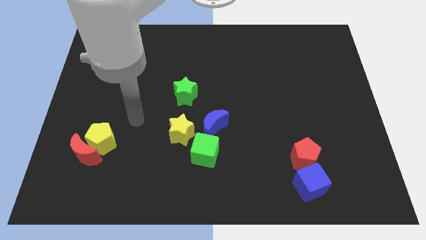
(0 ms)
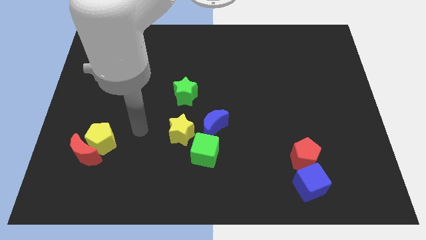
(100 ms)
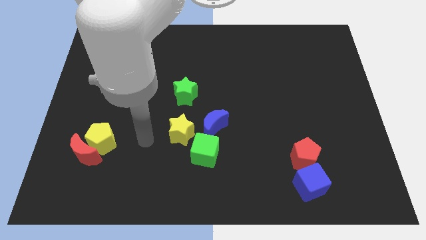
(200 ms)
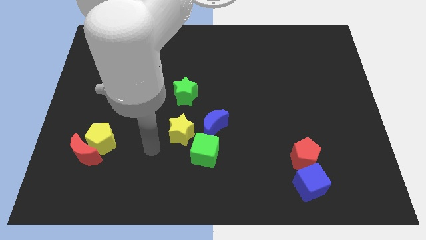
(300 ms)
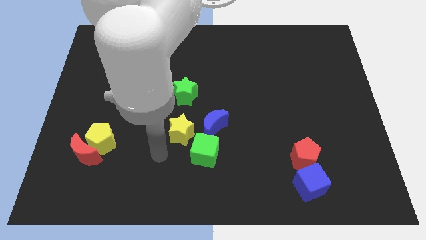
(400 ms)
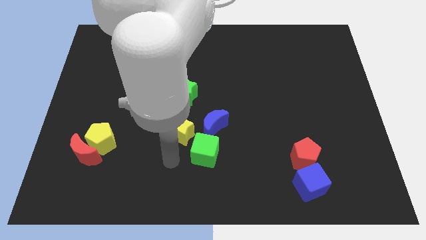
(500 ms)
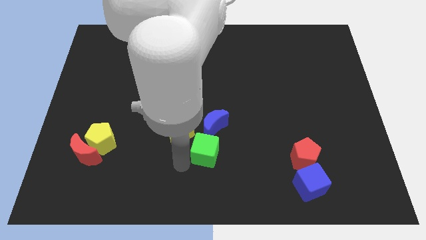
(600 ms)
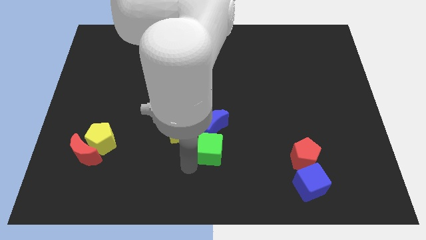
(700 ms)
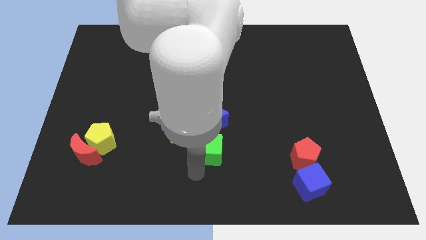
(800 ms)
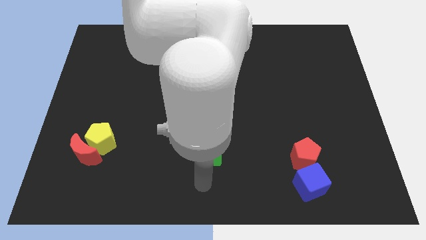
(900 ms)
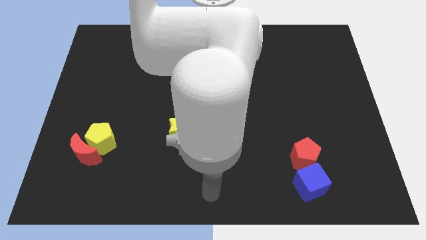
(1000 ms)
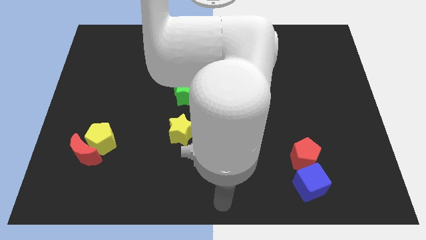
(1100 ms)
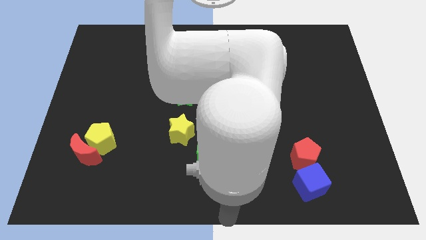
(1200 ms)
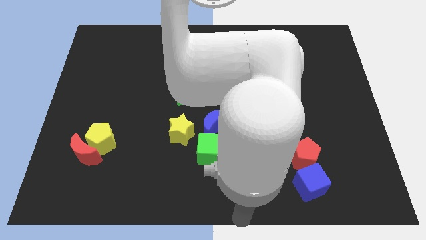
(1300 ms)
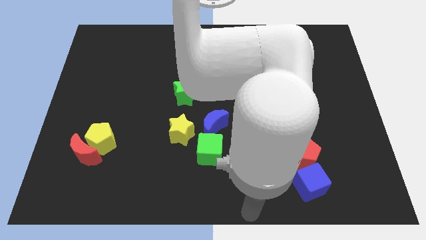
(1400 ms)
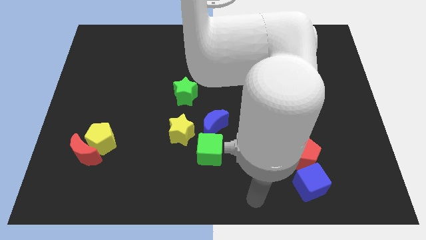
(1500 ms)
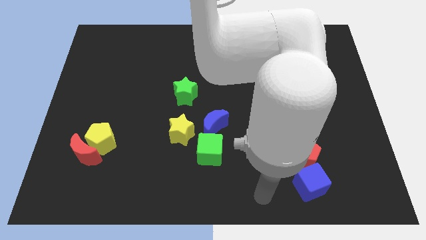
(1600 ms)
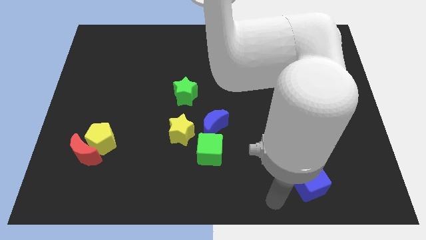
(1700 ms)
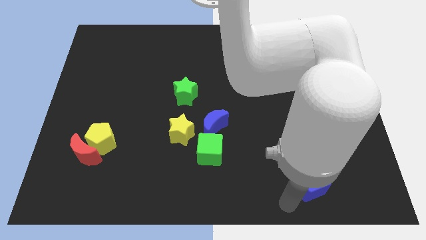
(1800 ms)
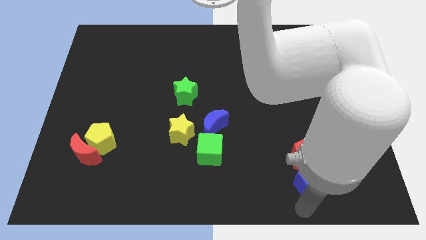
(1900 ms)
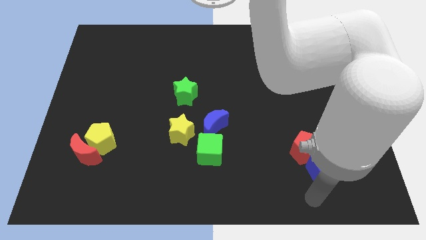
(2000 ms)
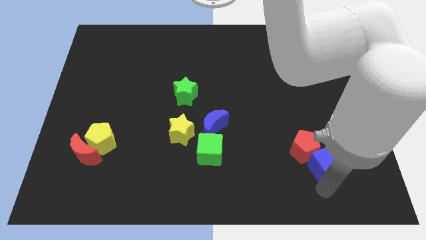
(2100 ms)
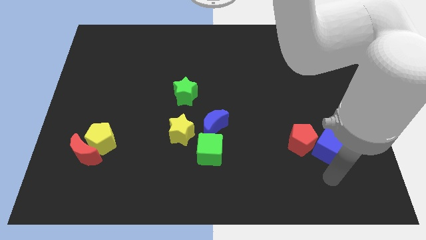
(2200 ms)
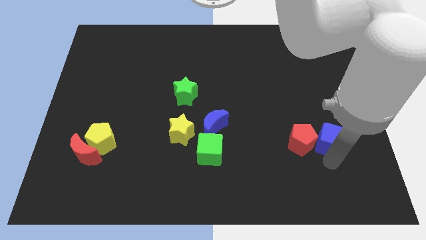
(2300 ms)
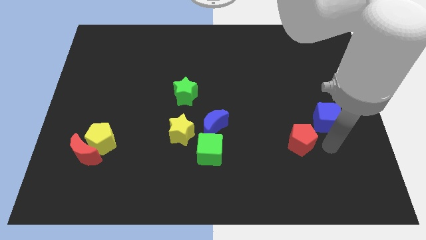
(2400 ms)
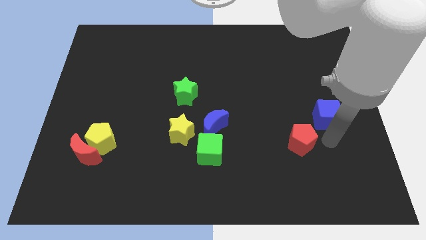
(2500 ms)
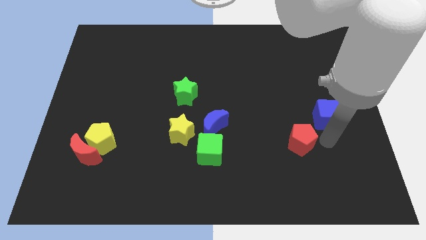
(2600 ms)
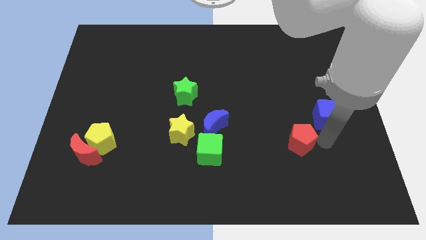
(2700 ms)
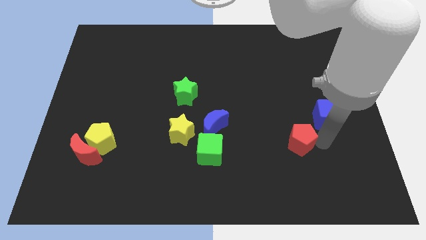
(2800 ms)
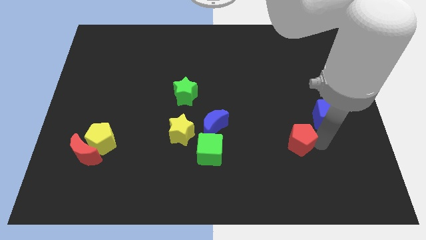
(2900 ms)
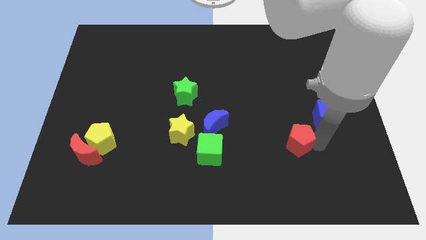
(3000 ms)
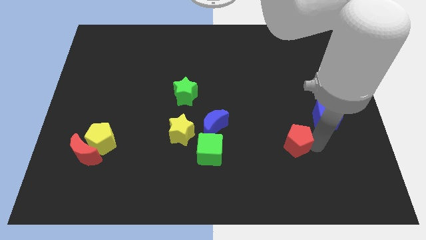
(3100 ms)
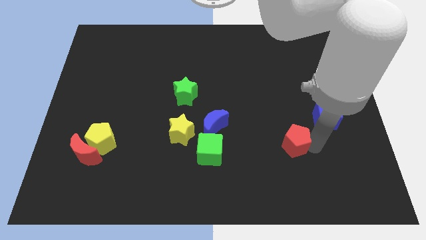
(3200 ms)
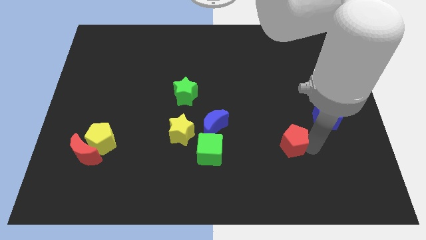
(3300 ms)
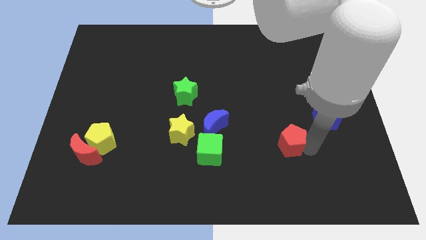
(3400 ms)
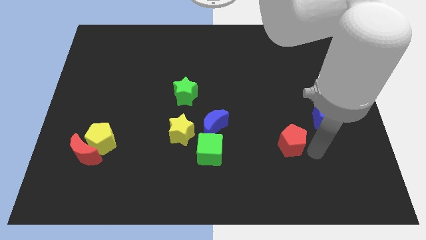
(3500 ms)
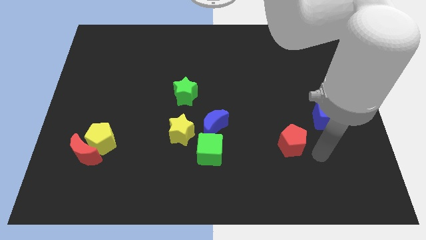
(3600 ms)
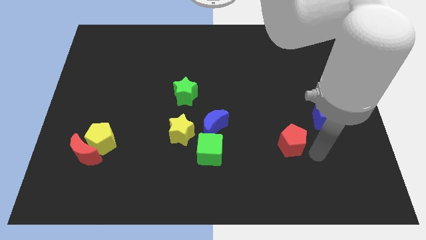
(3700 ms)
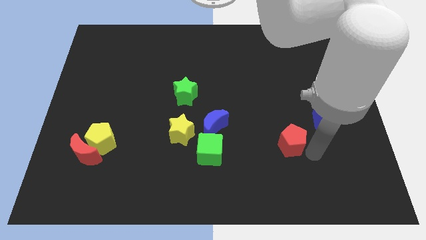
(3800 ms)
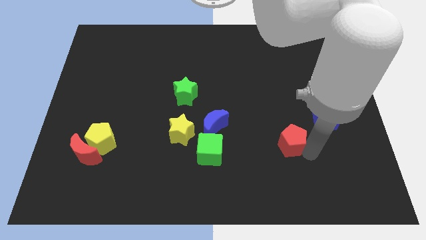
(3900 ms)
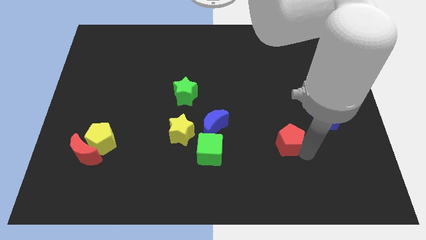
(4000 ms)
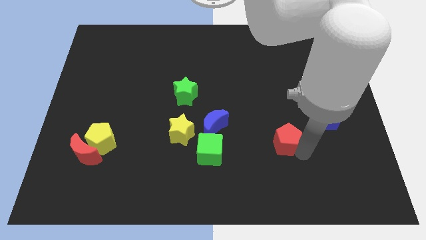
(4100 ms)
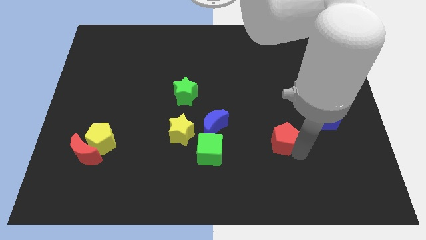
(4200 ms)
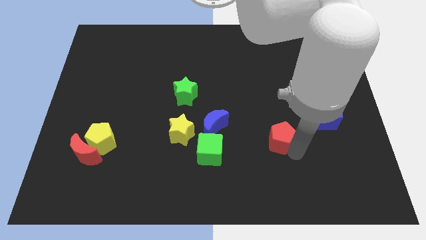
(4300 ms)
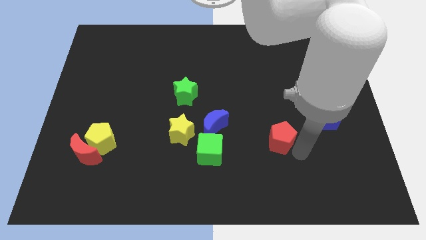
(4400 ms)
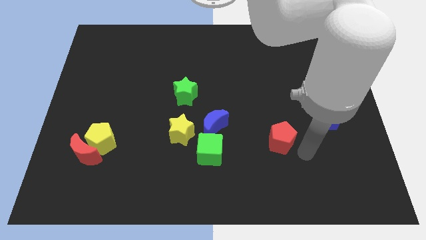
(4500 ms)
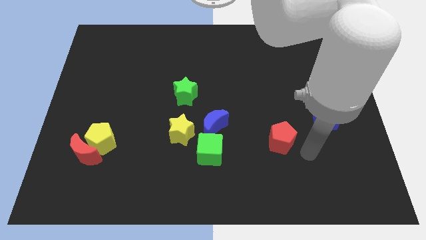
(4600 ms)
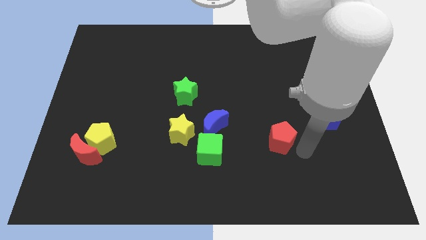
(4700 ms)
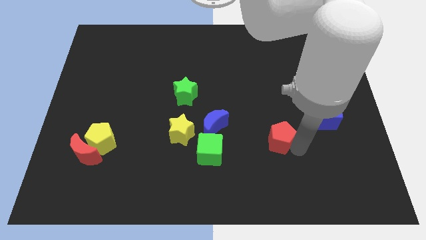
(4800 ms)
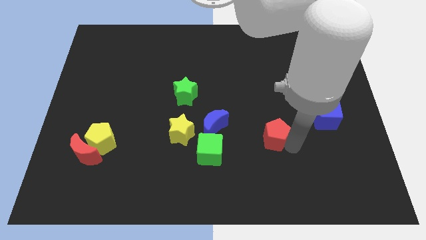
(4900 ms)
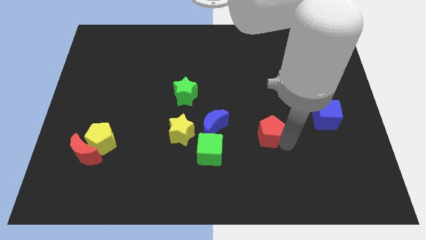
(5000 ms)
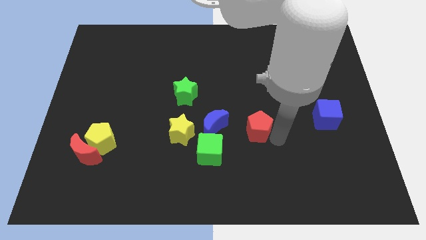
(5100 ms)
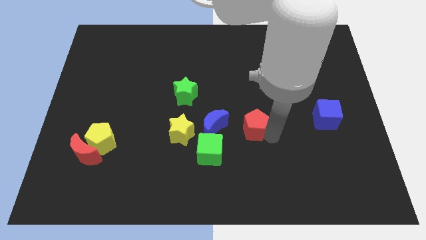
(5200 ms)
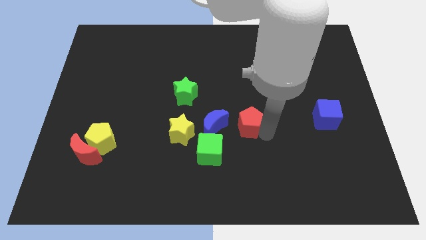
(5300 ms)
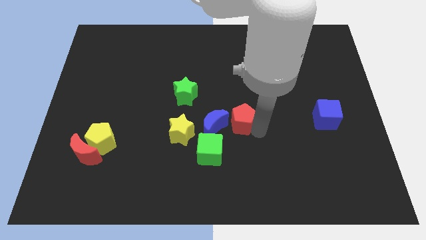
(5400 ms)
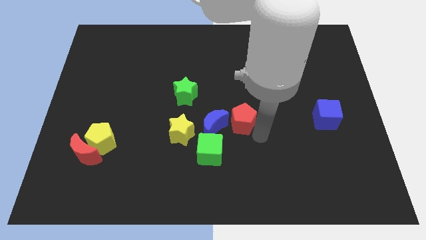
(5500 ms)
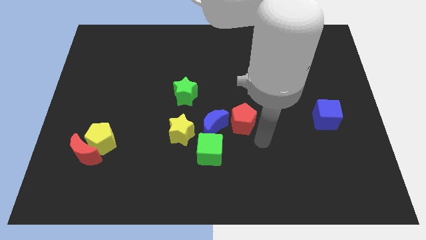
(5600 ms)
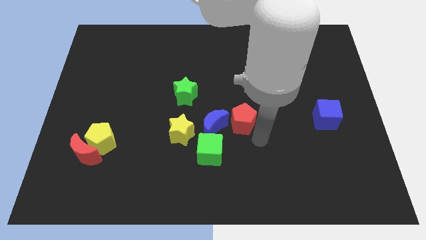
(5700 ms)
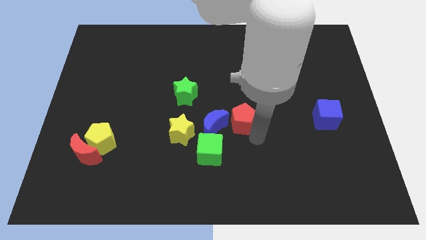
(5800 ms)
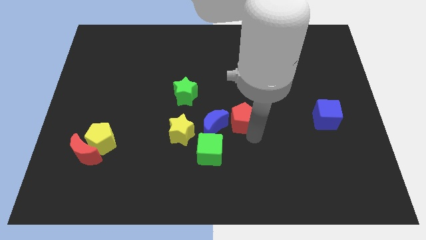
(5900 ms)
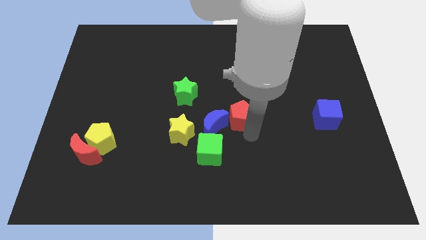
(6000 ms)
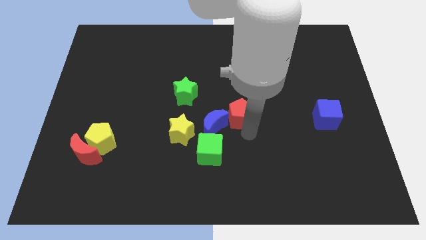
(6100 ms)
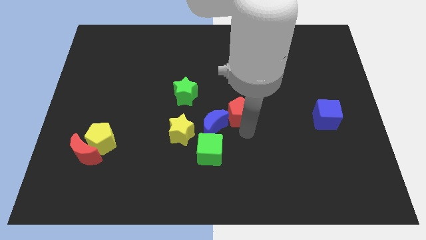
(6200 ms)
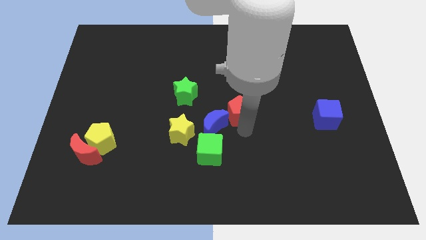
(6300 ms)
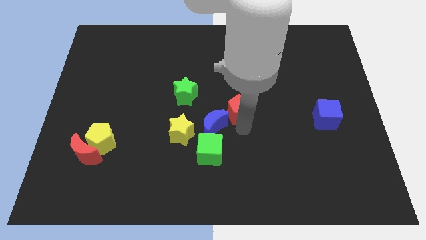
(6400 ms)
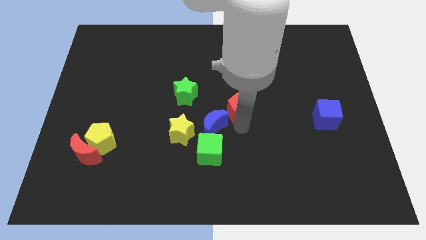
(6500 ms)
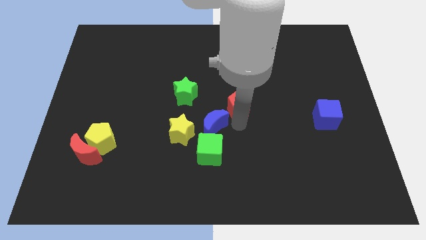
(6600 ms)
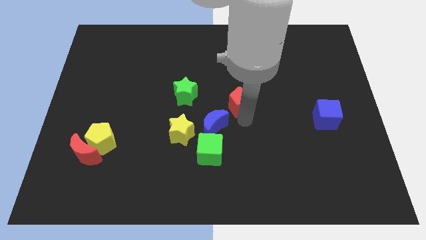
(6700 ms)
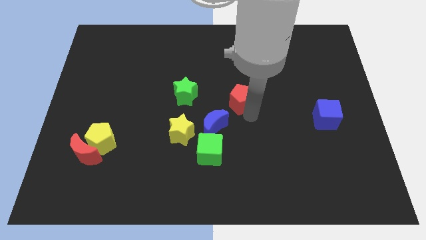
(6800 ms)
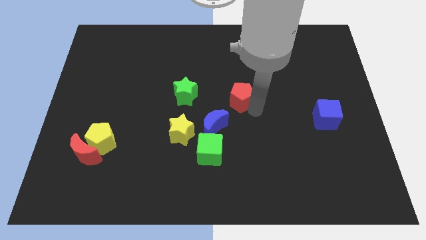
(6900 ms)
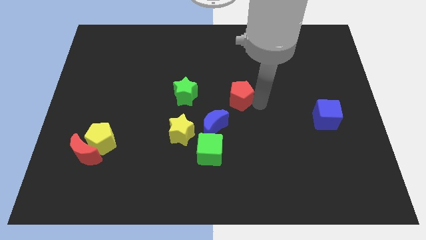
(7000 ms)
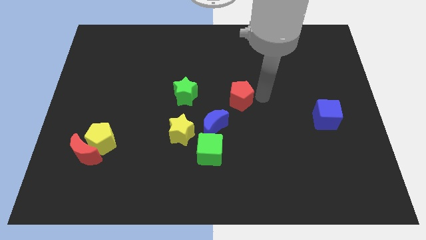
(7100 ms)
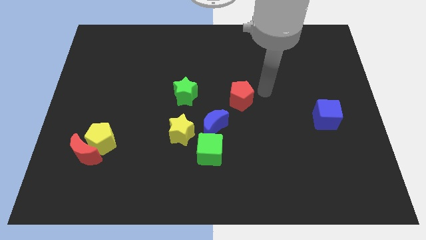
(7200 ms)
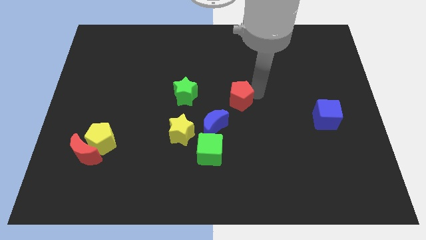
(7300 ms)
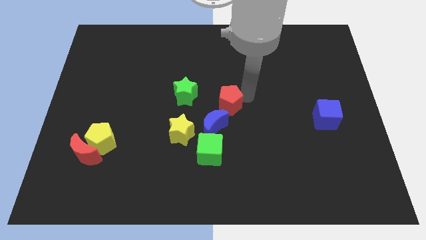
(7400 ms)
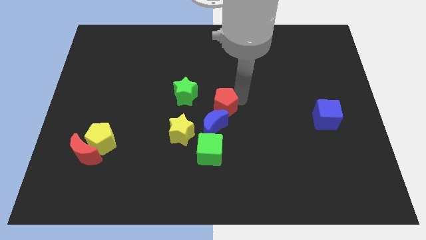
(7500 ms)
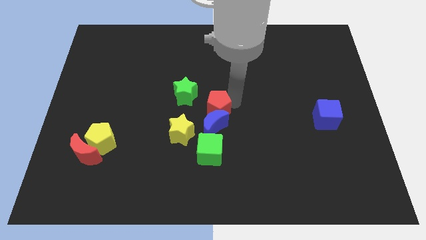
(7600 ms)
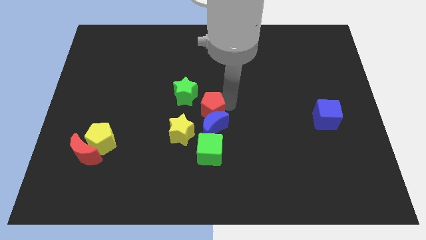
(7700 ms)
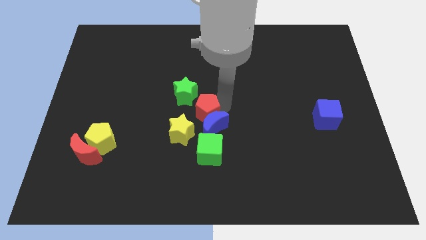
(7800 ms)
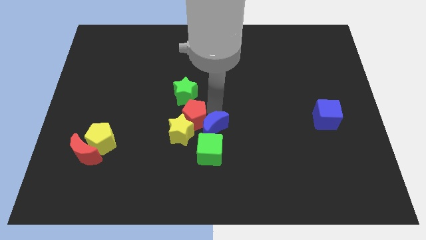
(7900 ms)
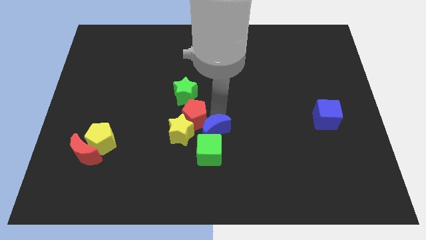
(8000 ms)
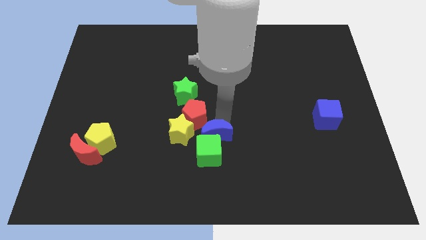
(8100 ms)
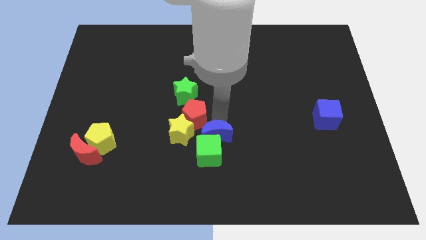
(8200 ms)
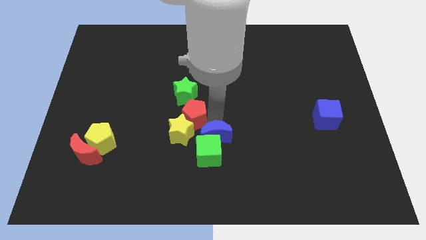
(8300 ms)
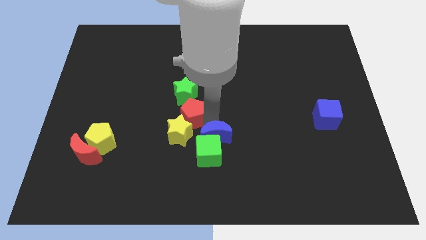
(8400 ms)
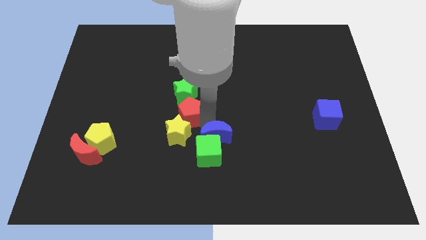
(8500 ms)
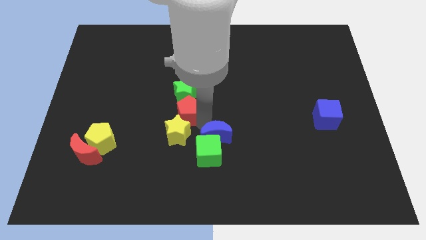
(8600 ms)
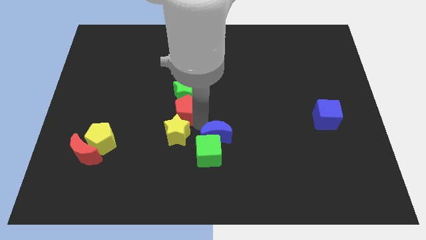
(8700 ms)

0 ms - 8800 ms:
slide the red pentagon to the bottom left side of the green star
